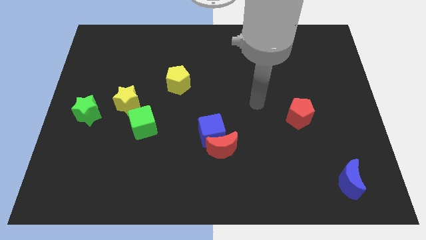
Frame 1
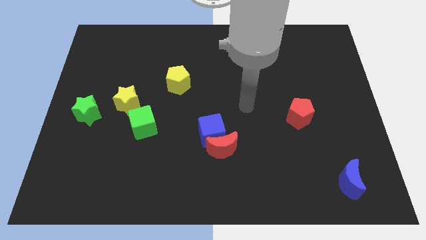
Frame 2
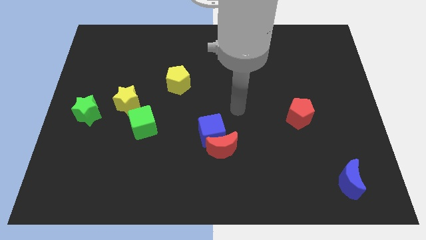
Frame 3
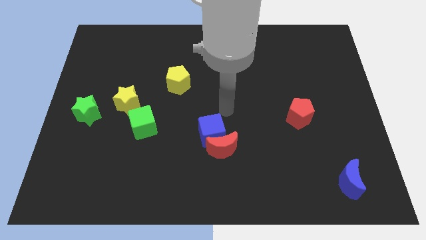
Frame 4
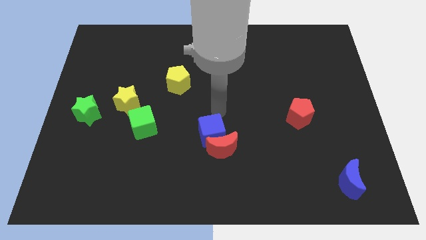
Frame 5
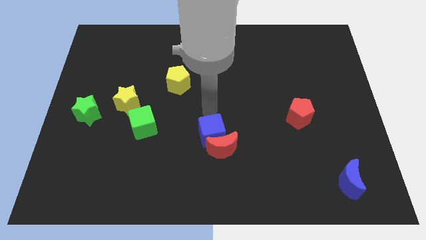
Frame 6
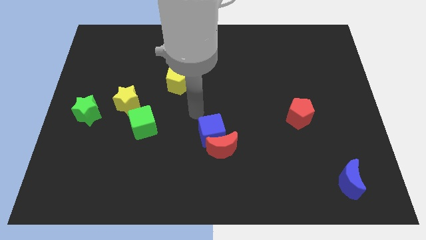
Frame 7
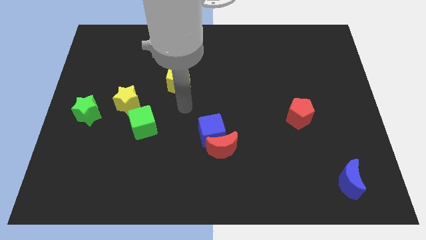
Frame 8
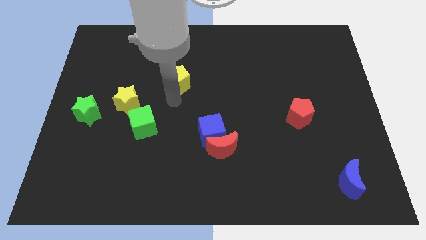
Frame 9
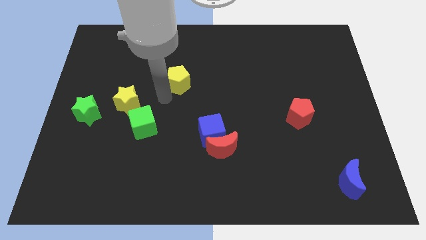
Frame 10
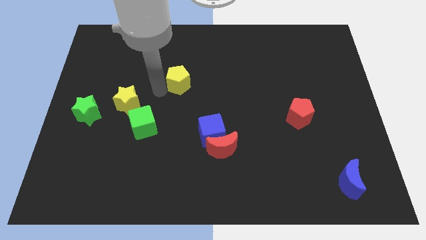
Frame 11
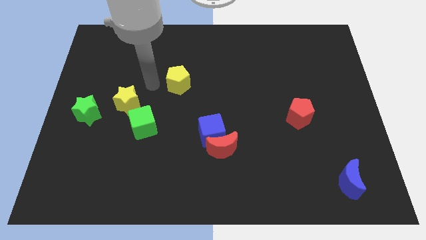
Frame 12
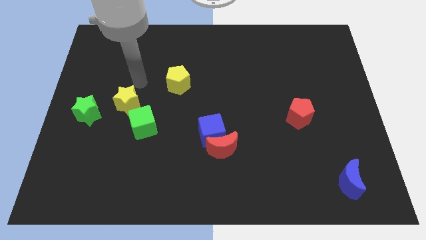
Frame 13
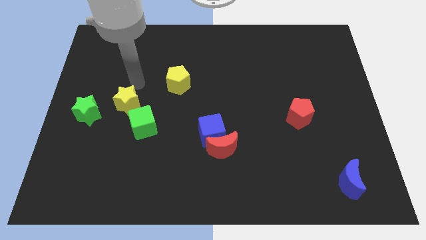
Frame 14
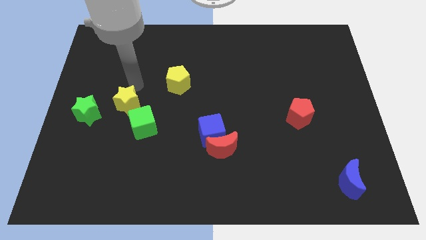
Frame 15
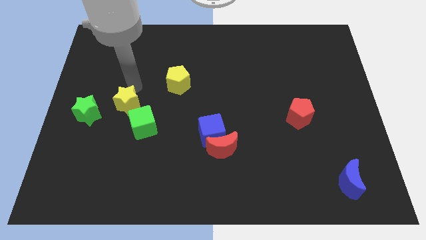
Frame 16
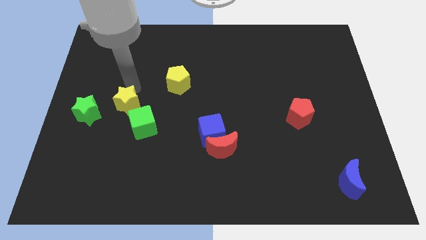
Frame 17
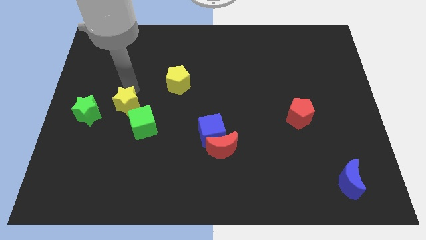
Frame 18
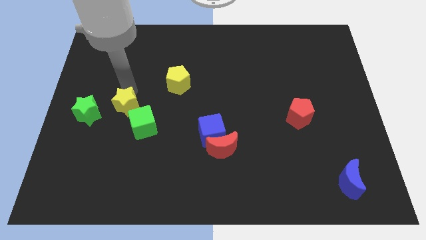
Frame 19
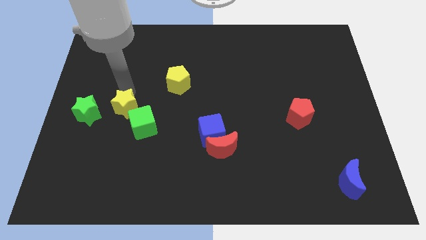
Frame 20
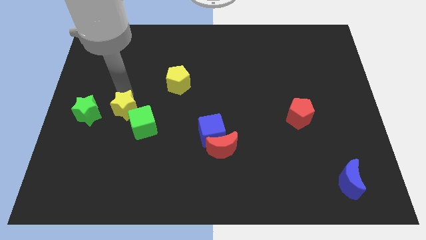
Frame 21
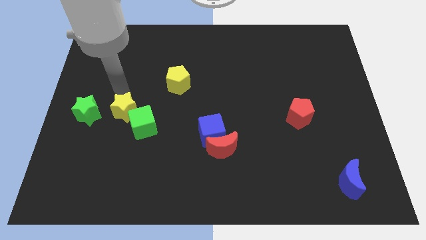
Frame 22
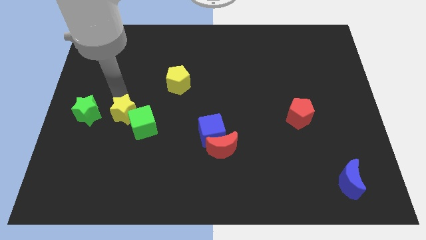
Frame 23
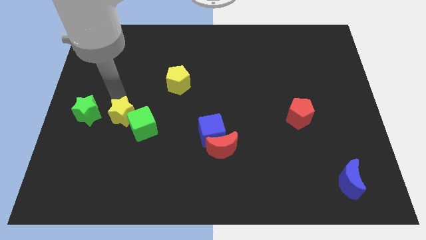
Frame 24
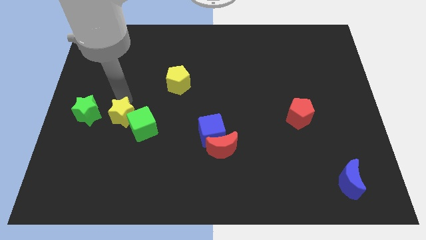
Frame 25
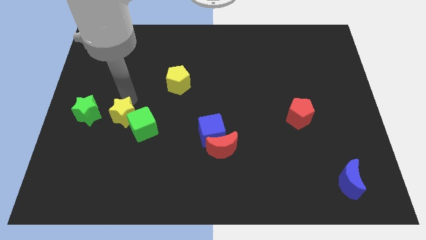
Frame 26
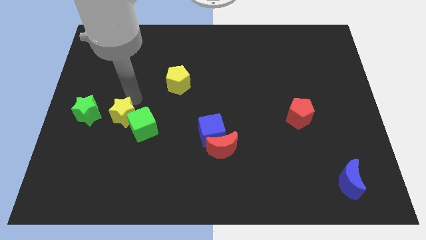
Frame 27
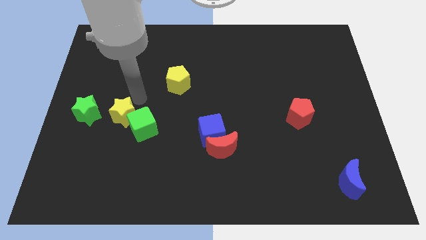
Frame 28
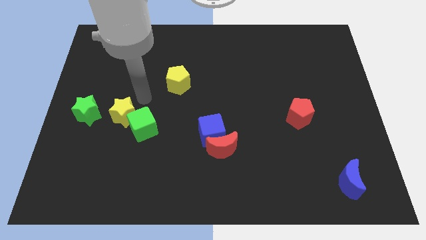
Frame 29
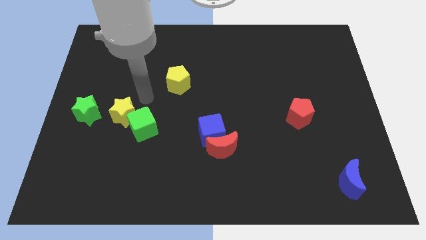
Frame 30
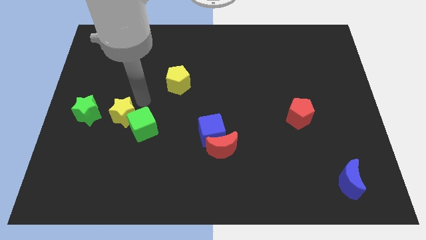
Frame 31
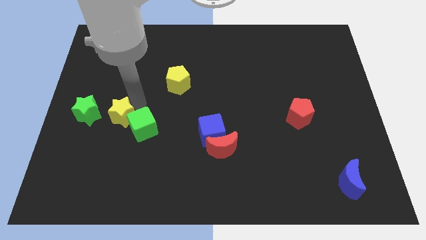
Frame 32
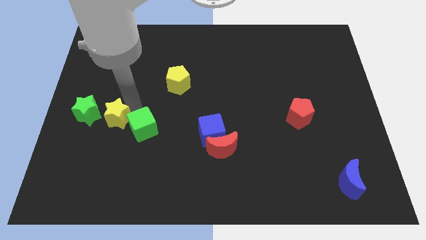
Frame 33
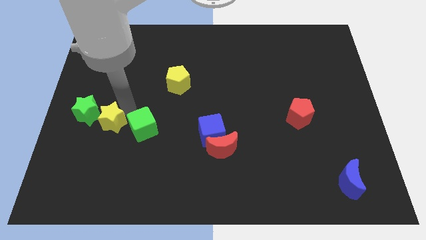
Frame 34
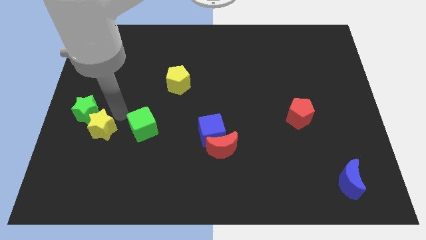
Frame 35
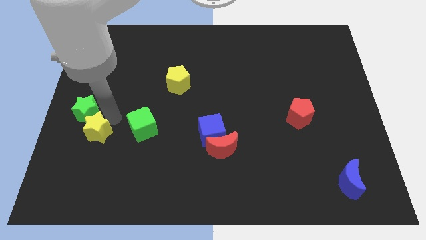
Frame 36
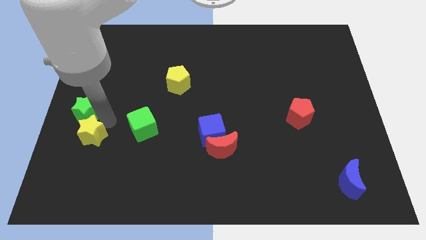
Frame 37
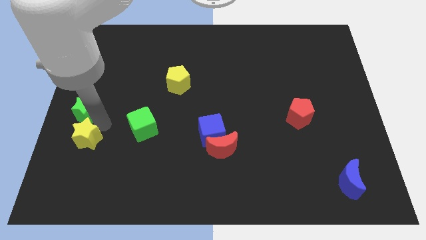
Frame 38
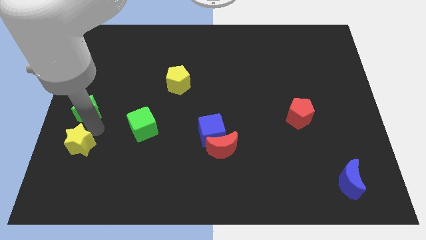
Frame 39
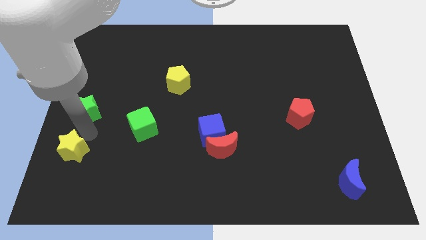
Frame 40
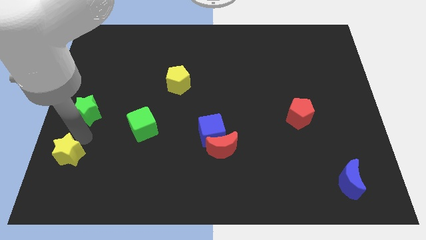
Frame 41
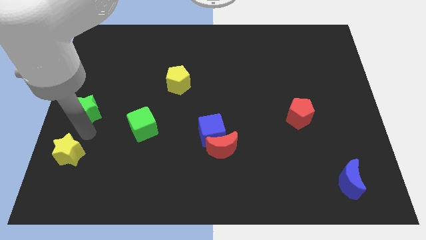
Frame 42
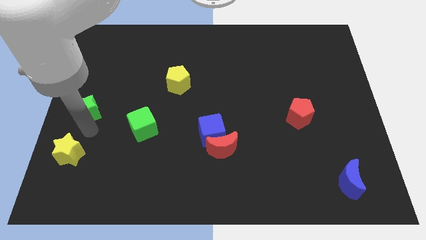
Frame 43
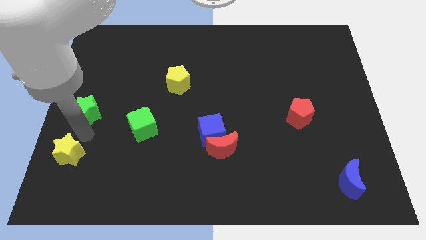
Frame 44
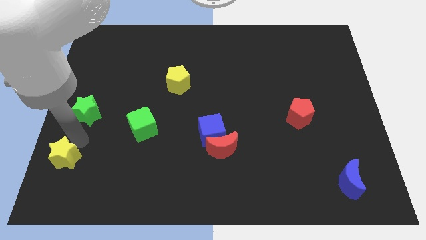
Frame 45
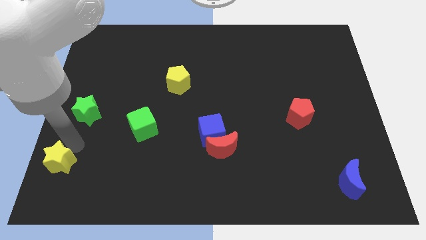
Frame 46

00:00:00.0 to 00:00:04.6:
move the yellow star to the lower left corner

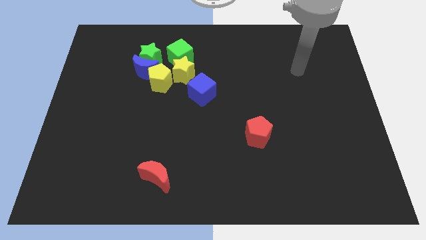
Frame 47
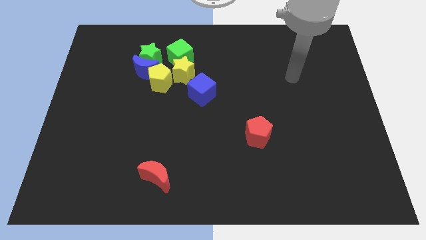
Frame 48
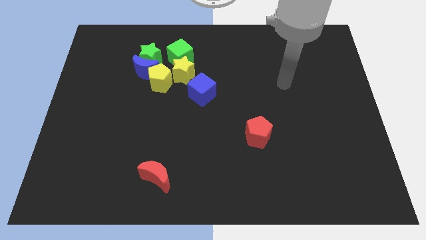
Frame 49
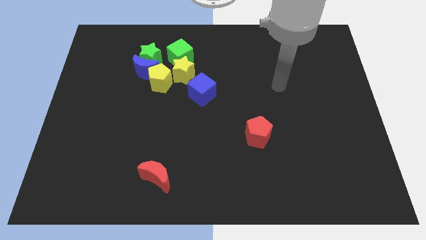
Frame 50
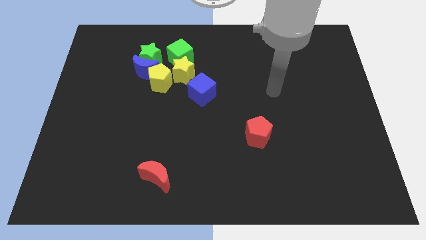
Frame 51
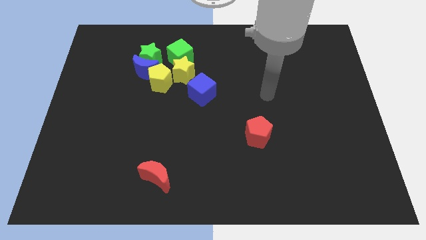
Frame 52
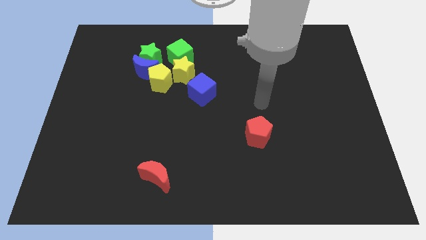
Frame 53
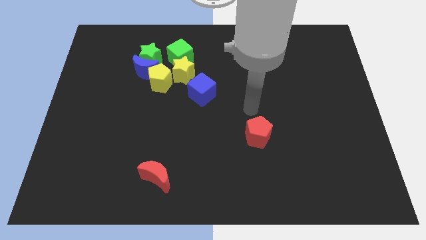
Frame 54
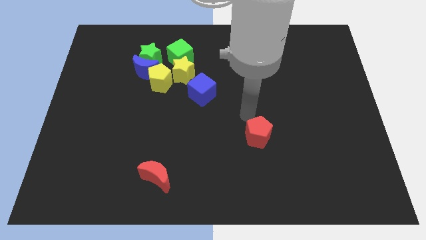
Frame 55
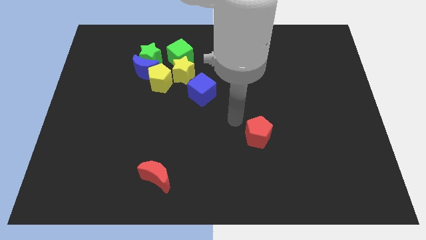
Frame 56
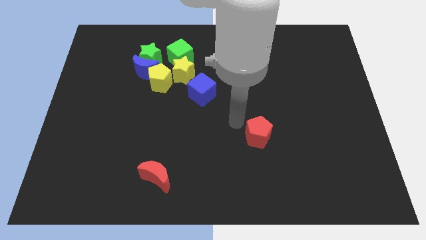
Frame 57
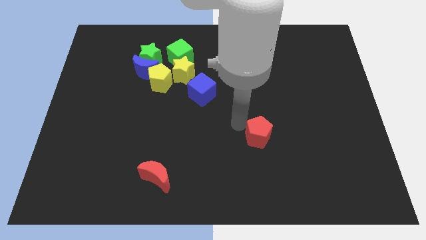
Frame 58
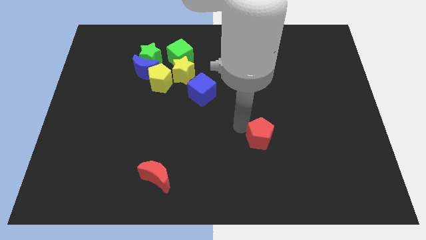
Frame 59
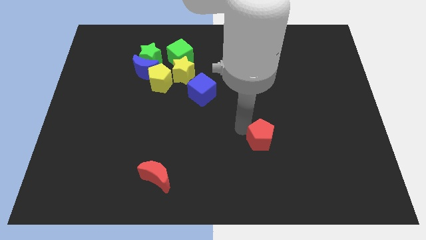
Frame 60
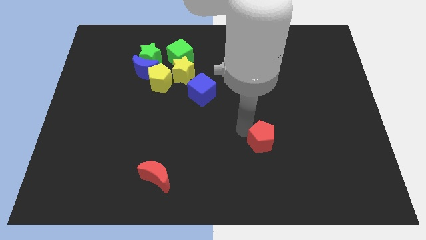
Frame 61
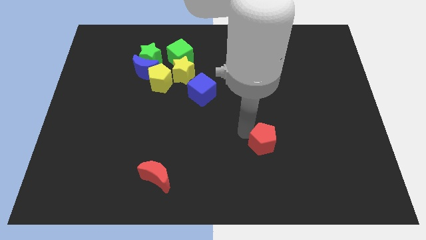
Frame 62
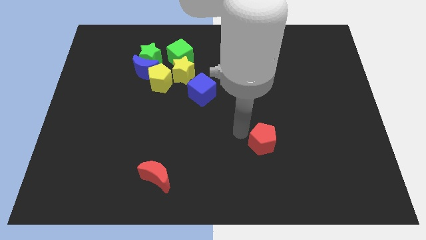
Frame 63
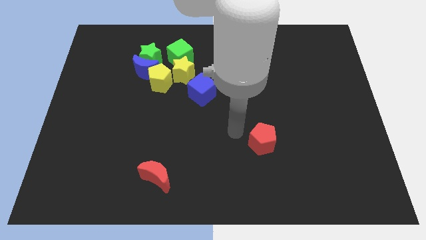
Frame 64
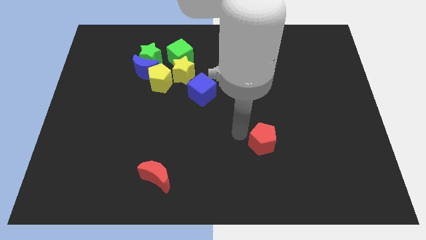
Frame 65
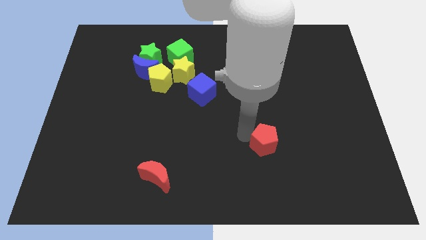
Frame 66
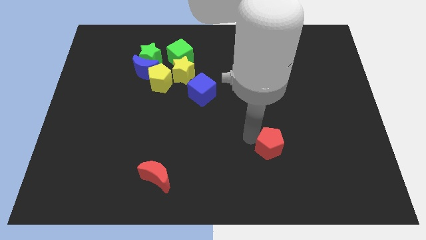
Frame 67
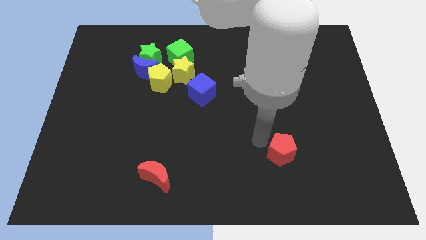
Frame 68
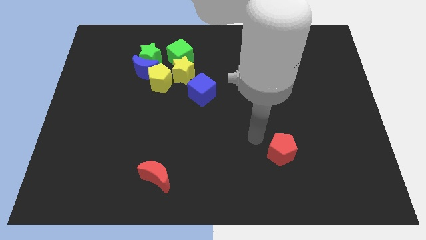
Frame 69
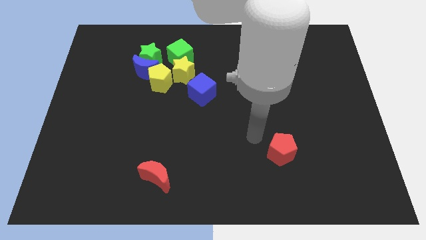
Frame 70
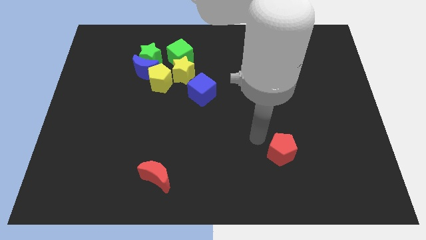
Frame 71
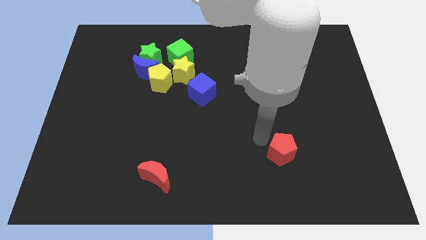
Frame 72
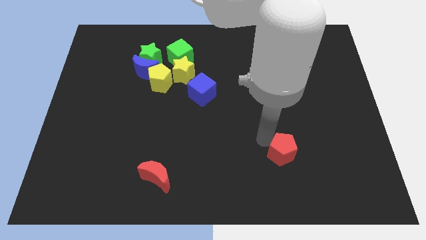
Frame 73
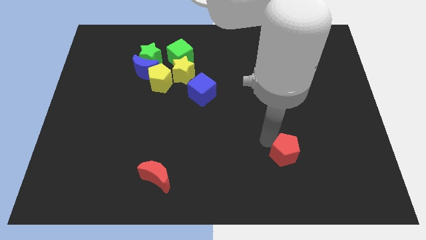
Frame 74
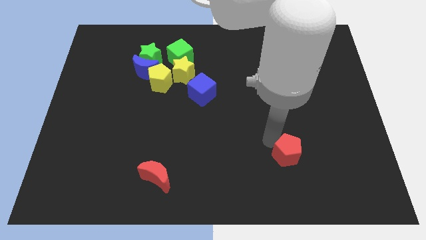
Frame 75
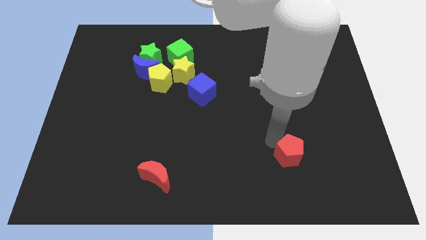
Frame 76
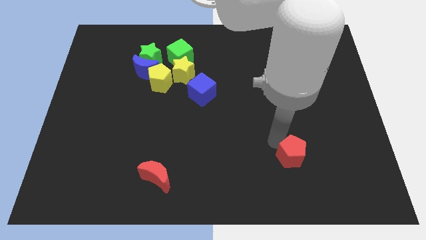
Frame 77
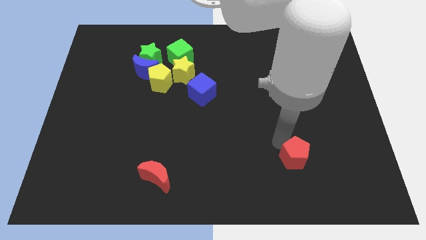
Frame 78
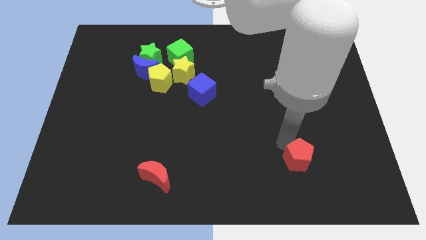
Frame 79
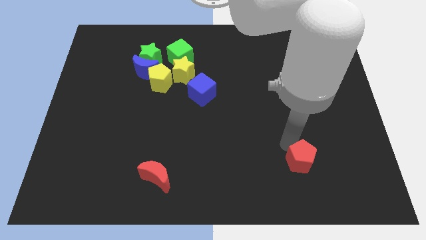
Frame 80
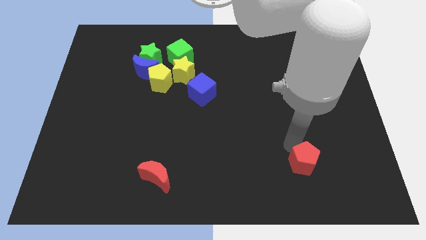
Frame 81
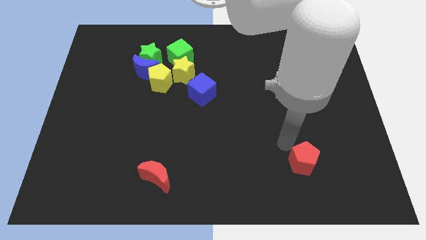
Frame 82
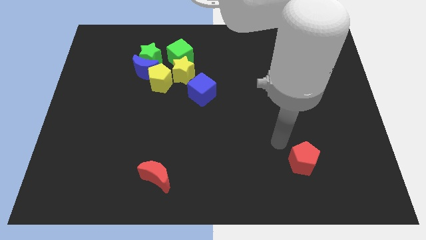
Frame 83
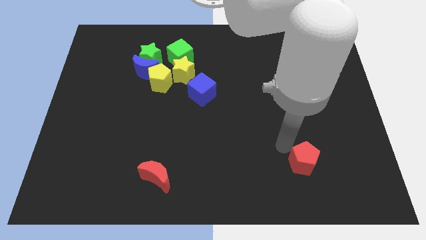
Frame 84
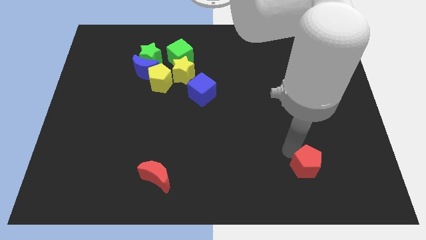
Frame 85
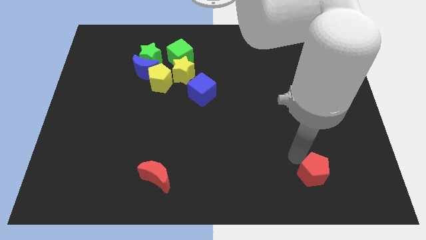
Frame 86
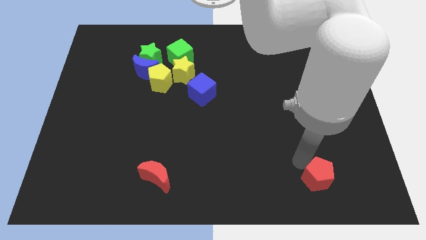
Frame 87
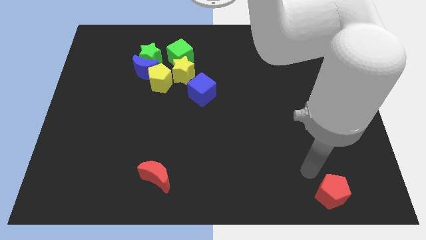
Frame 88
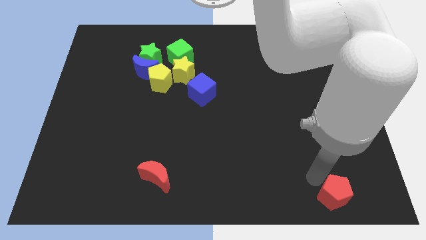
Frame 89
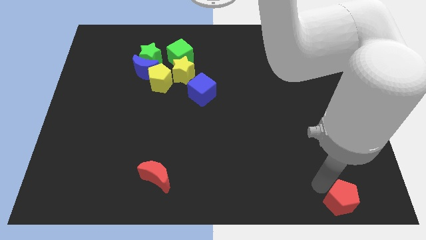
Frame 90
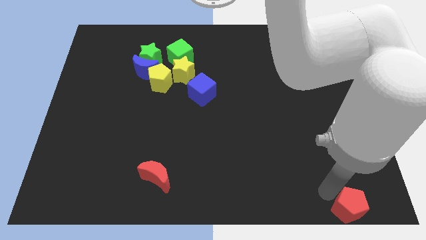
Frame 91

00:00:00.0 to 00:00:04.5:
put the red pentagon to the bottom right
